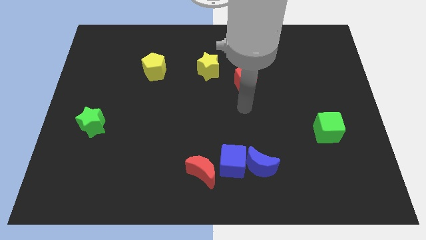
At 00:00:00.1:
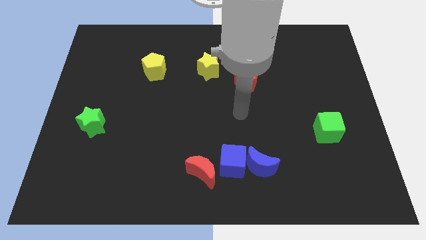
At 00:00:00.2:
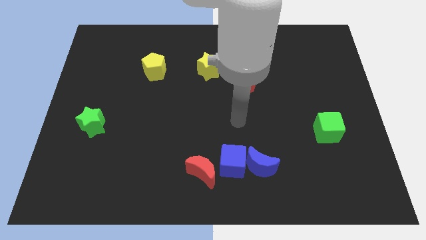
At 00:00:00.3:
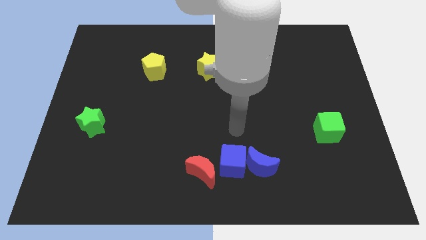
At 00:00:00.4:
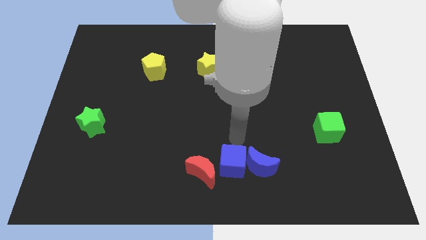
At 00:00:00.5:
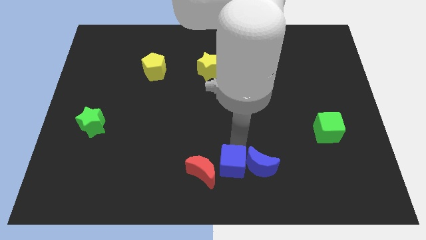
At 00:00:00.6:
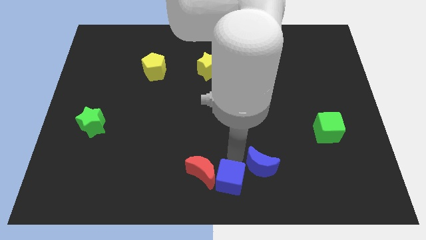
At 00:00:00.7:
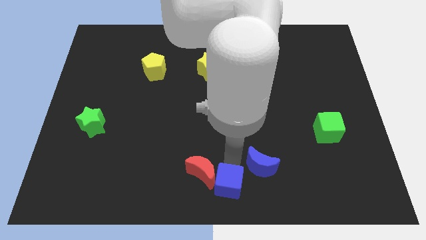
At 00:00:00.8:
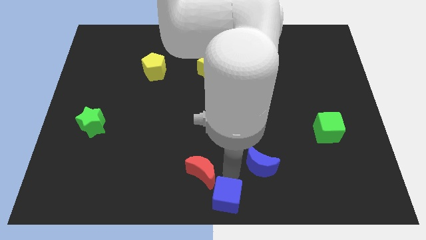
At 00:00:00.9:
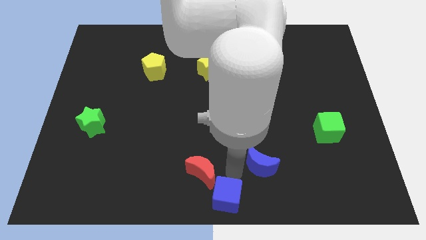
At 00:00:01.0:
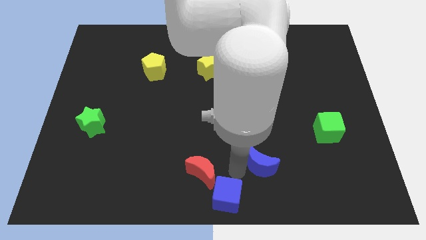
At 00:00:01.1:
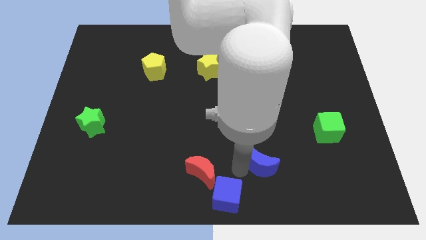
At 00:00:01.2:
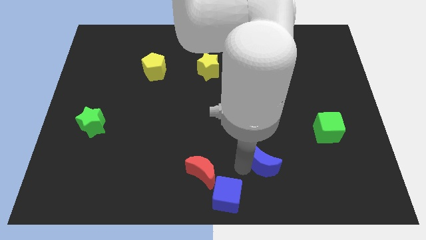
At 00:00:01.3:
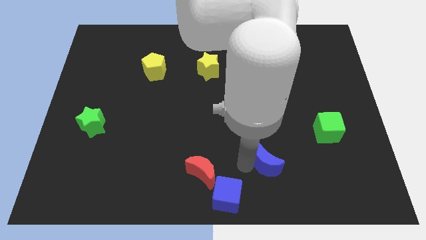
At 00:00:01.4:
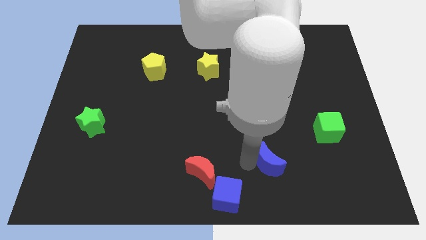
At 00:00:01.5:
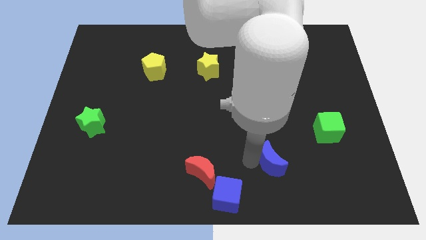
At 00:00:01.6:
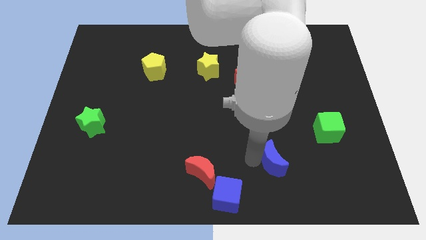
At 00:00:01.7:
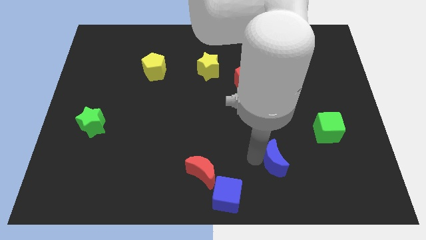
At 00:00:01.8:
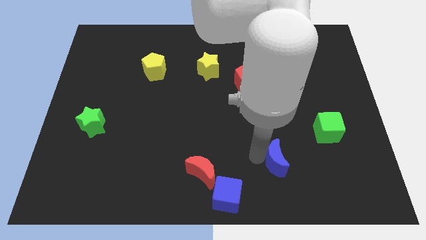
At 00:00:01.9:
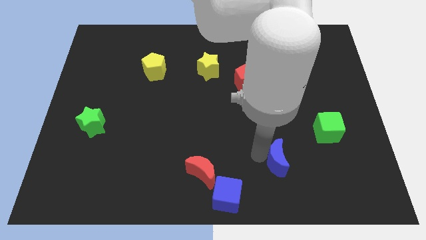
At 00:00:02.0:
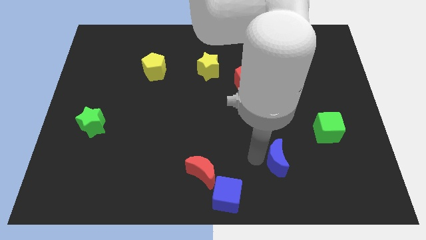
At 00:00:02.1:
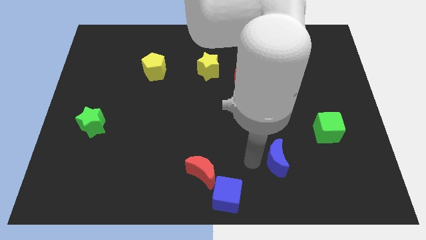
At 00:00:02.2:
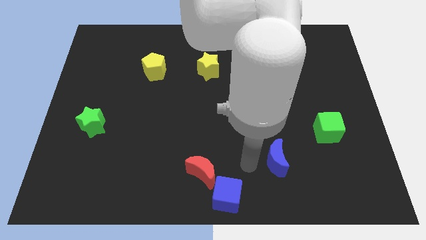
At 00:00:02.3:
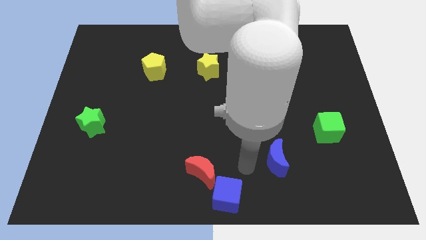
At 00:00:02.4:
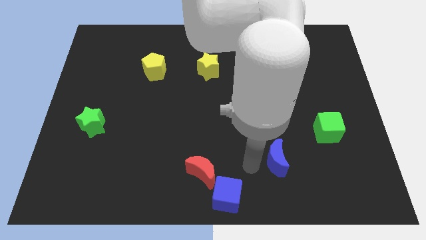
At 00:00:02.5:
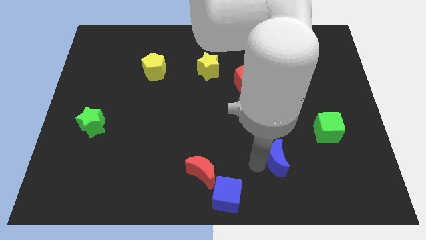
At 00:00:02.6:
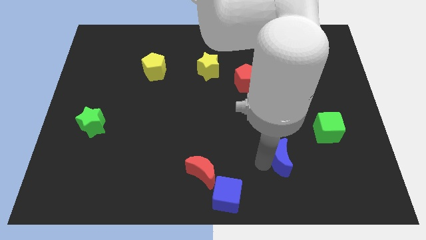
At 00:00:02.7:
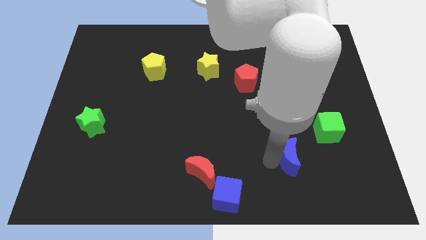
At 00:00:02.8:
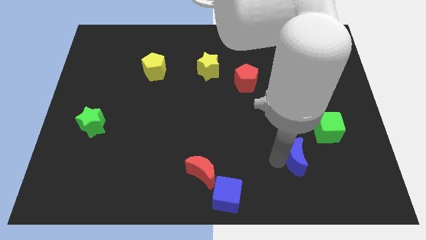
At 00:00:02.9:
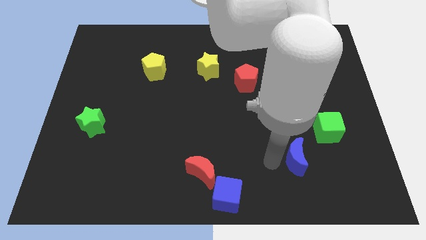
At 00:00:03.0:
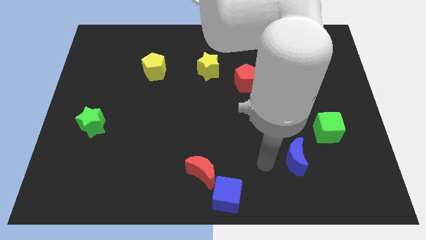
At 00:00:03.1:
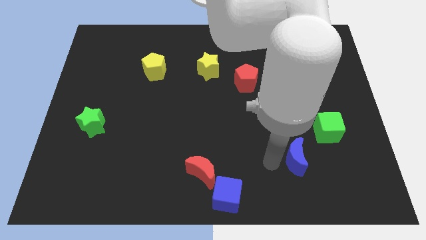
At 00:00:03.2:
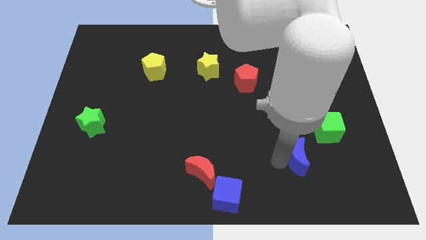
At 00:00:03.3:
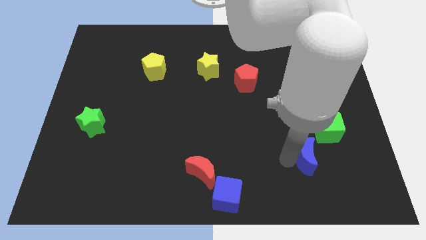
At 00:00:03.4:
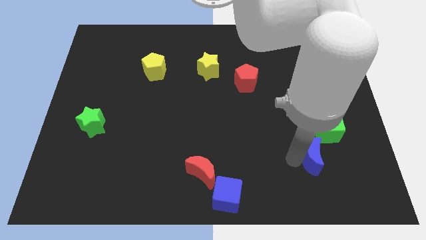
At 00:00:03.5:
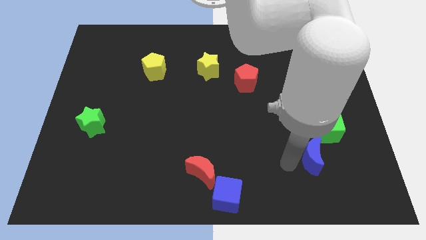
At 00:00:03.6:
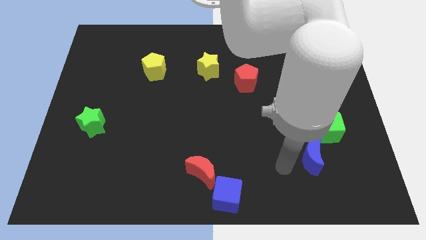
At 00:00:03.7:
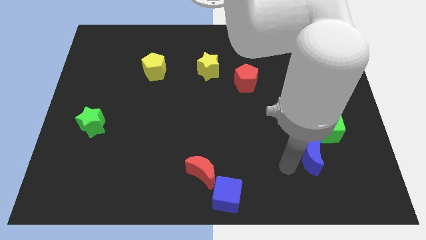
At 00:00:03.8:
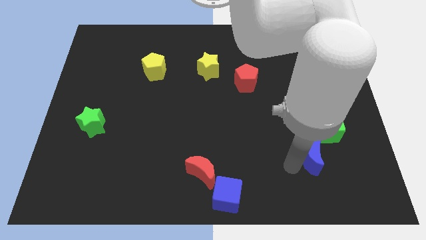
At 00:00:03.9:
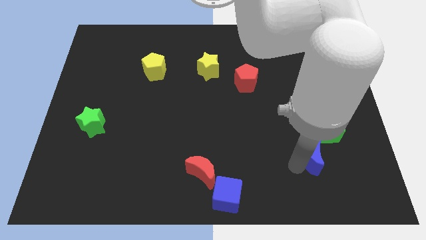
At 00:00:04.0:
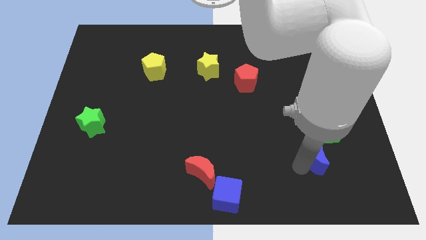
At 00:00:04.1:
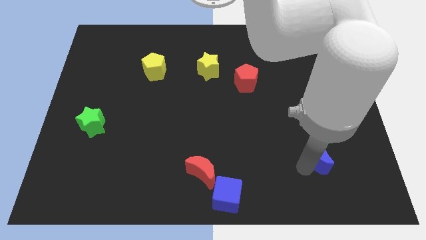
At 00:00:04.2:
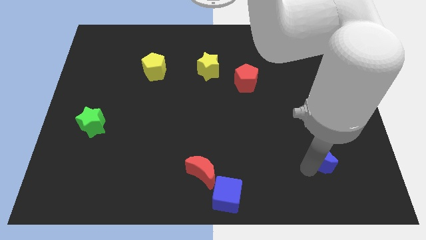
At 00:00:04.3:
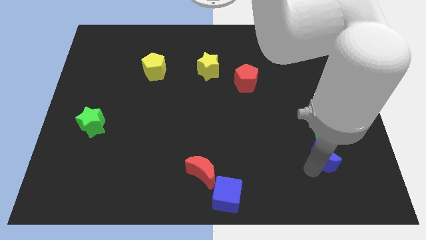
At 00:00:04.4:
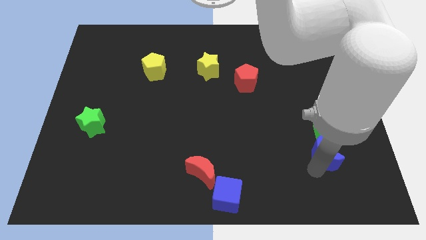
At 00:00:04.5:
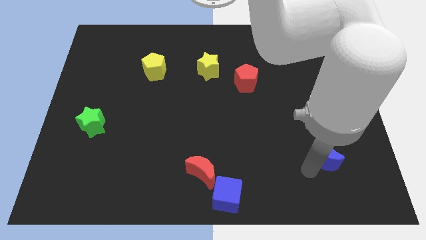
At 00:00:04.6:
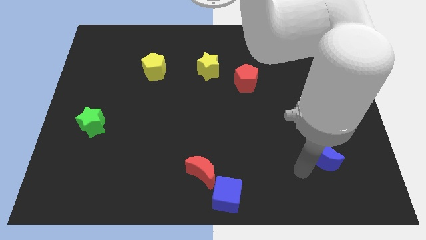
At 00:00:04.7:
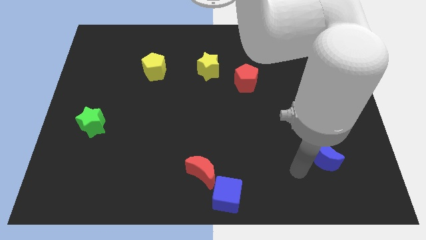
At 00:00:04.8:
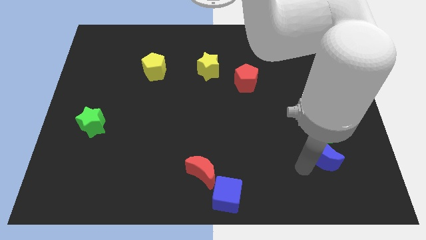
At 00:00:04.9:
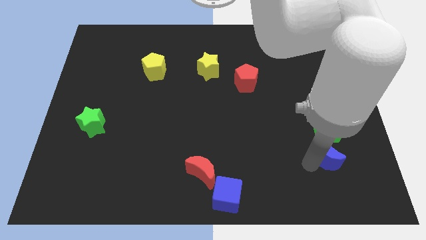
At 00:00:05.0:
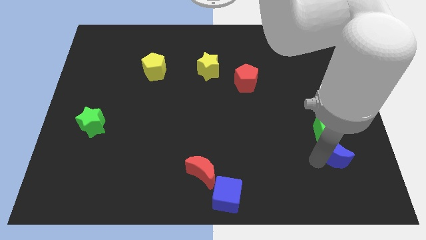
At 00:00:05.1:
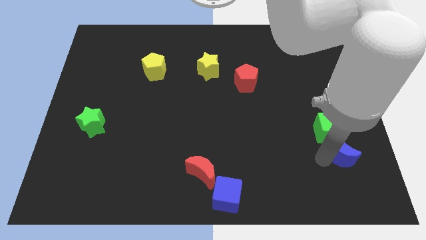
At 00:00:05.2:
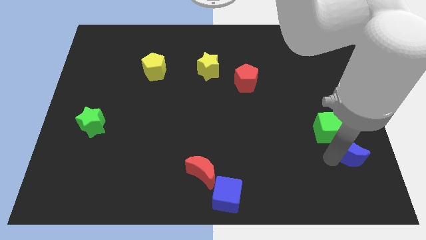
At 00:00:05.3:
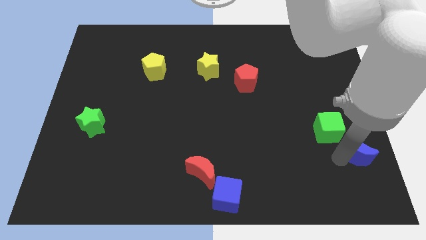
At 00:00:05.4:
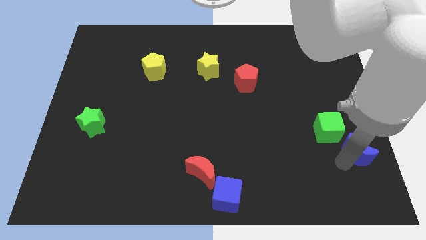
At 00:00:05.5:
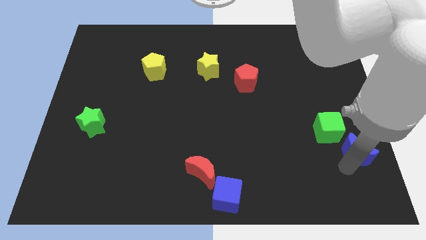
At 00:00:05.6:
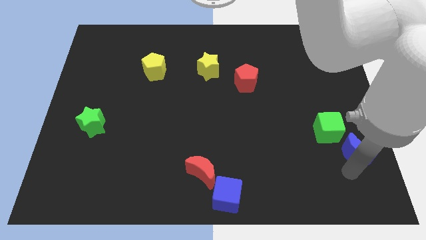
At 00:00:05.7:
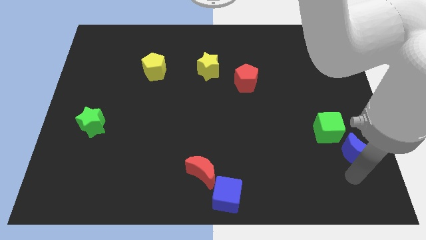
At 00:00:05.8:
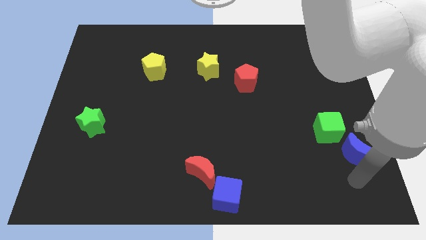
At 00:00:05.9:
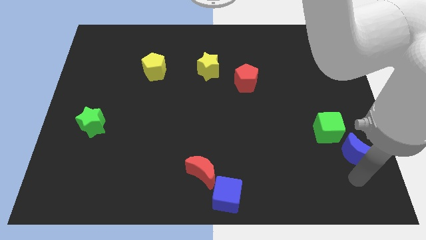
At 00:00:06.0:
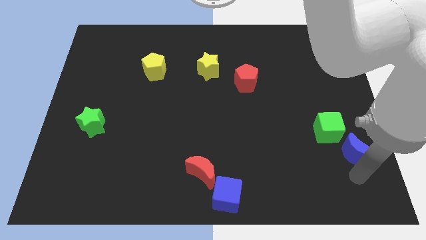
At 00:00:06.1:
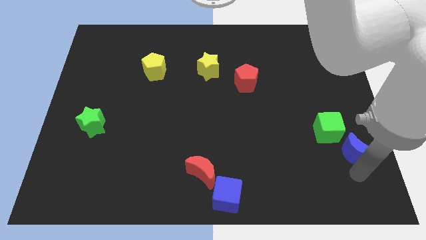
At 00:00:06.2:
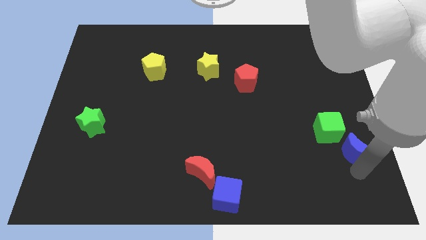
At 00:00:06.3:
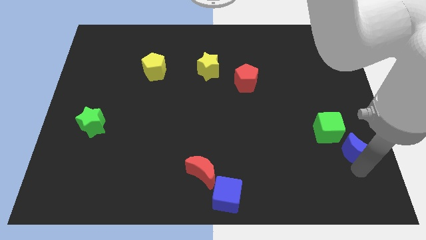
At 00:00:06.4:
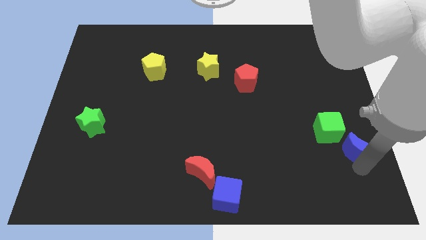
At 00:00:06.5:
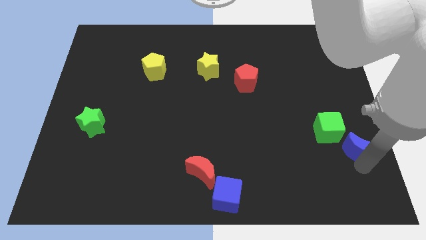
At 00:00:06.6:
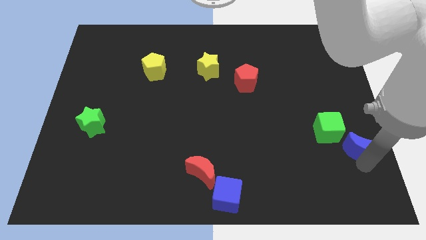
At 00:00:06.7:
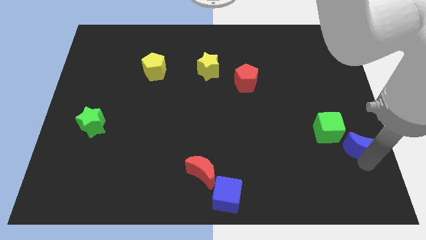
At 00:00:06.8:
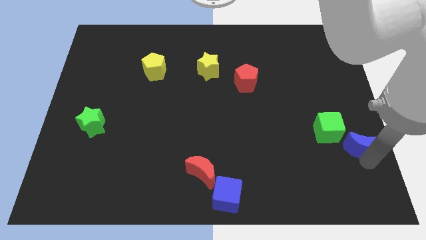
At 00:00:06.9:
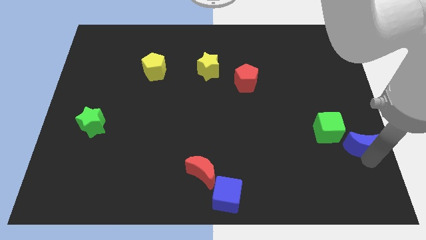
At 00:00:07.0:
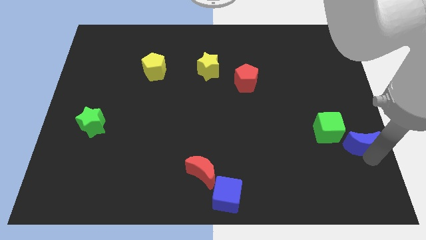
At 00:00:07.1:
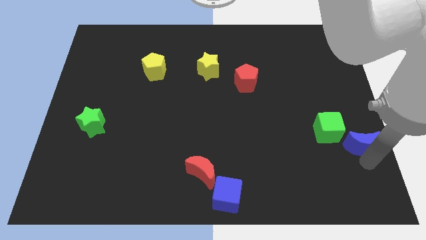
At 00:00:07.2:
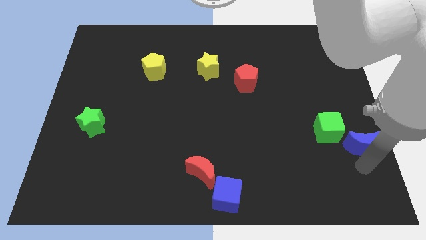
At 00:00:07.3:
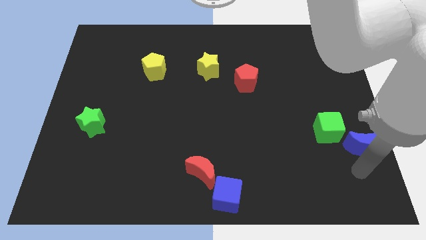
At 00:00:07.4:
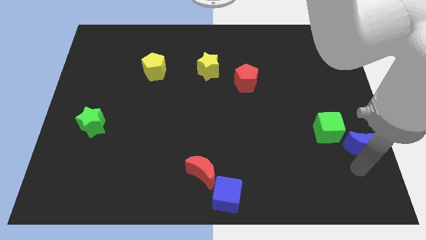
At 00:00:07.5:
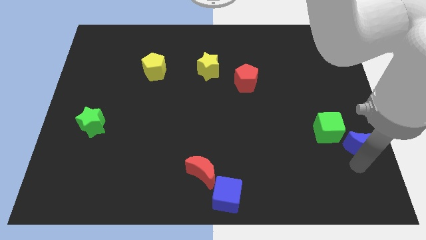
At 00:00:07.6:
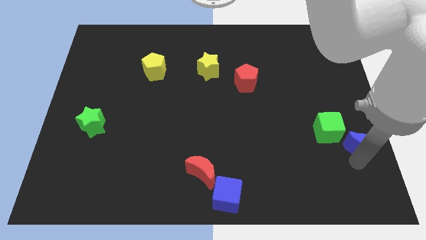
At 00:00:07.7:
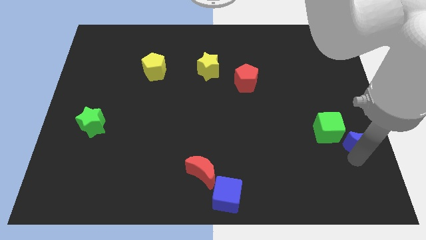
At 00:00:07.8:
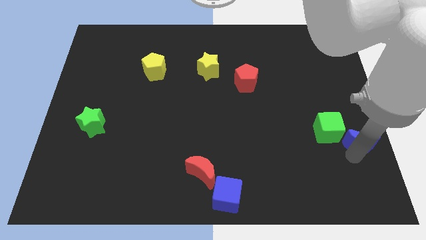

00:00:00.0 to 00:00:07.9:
slide the blue moon to the center right
